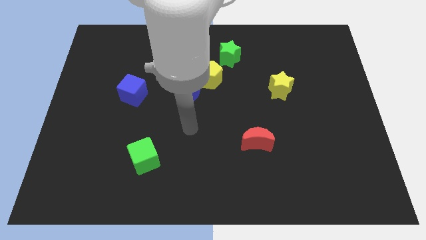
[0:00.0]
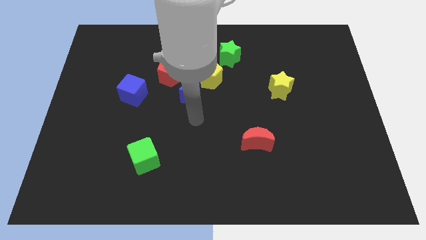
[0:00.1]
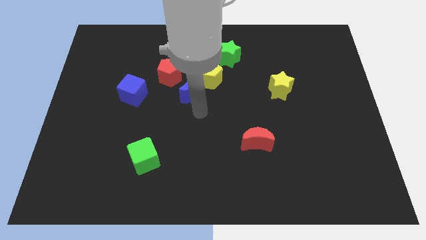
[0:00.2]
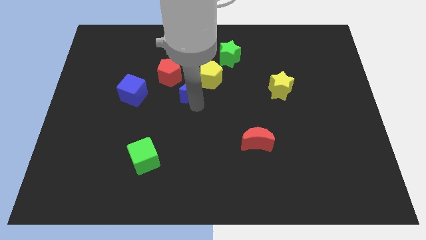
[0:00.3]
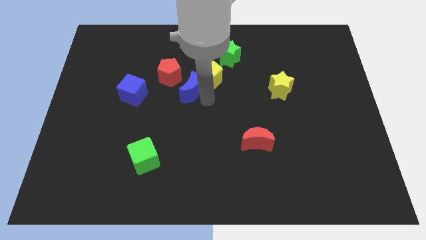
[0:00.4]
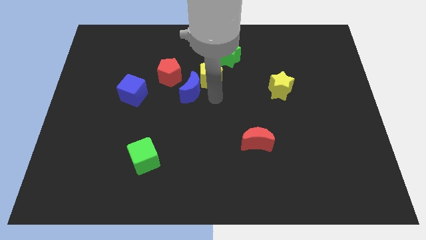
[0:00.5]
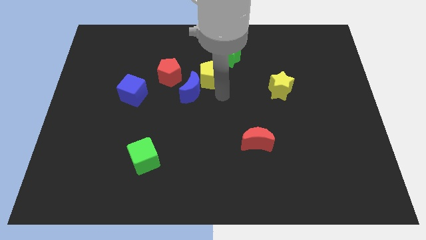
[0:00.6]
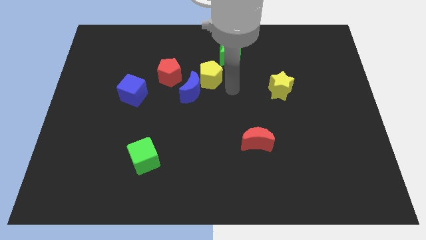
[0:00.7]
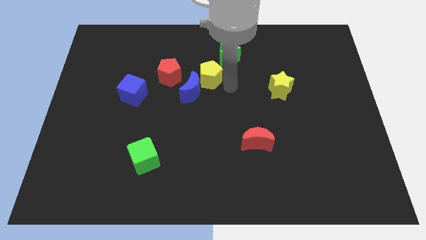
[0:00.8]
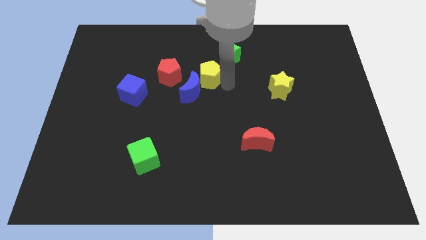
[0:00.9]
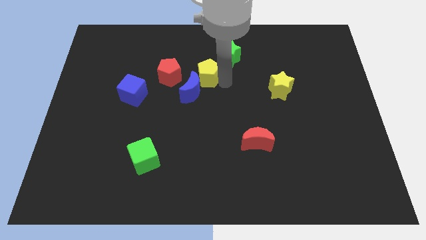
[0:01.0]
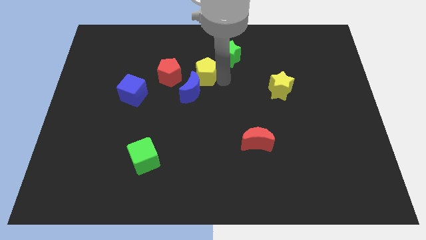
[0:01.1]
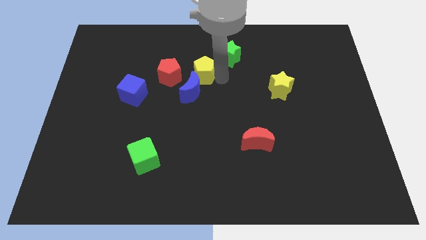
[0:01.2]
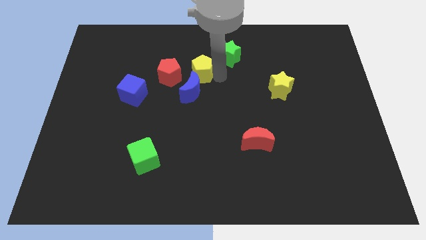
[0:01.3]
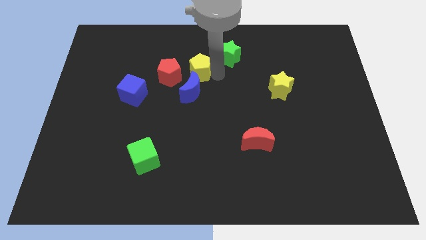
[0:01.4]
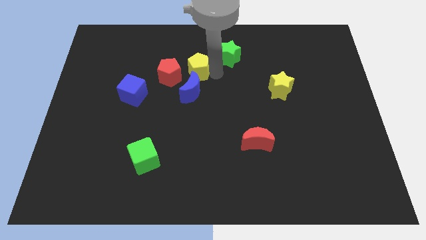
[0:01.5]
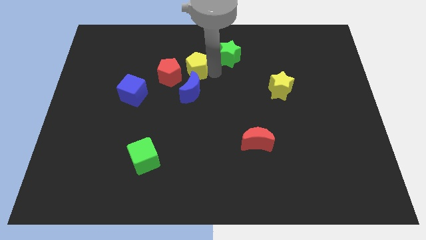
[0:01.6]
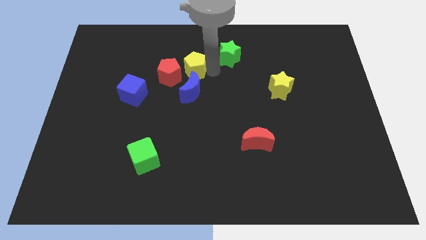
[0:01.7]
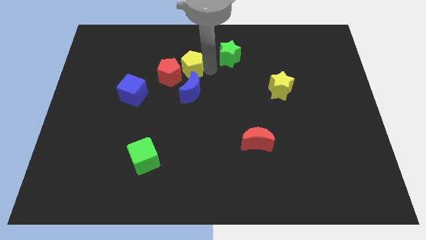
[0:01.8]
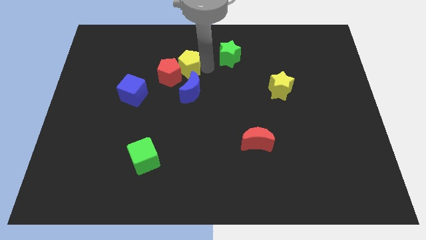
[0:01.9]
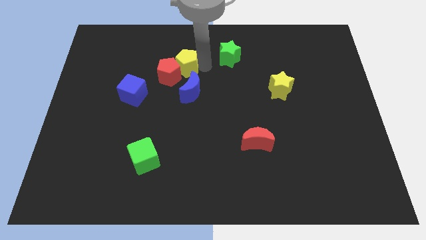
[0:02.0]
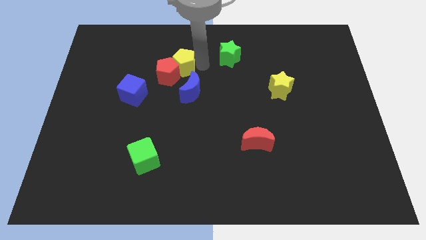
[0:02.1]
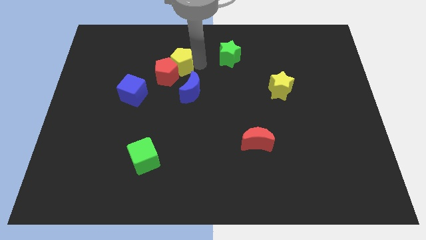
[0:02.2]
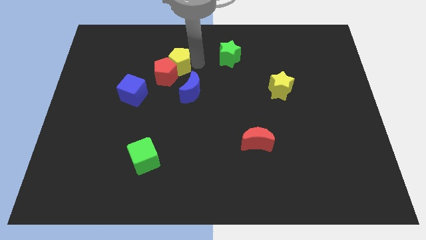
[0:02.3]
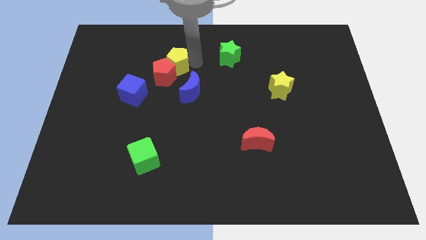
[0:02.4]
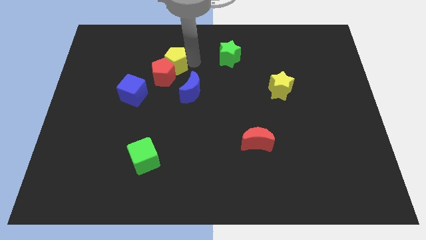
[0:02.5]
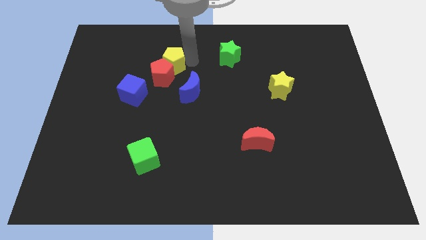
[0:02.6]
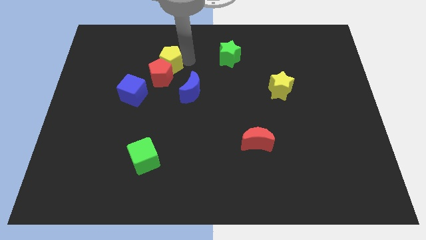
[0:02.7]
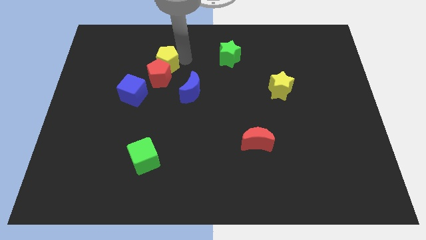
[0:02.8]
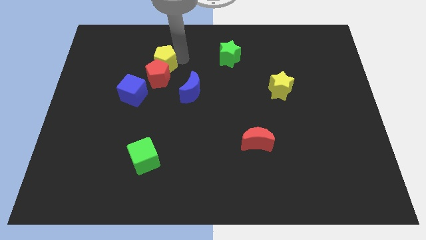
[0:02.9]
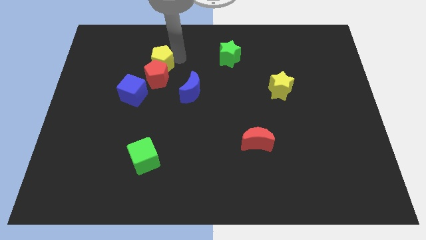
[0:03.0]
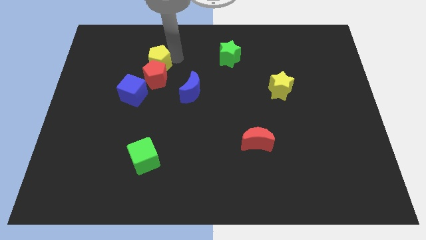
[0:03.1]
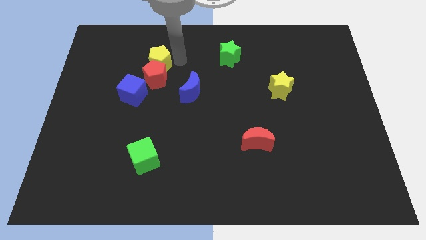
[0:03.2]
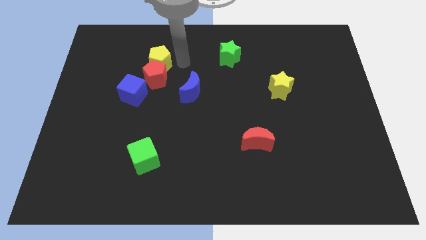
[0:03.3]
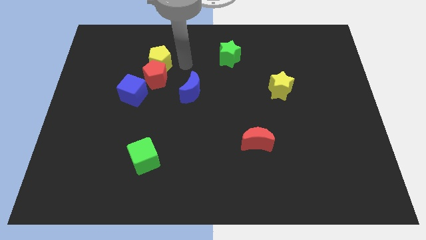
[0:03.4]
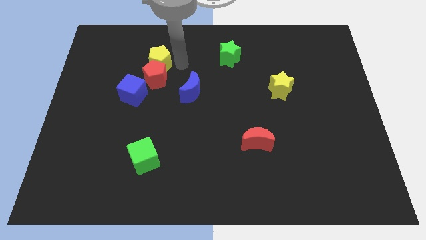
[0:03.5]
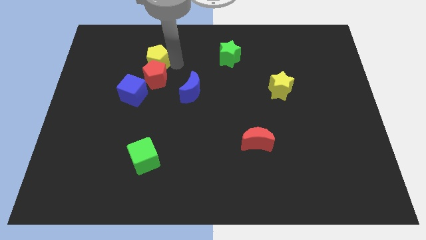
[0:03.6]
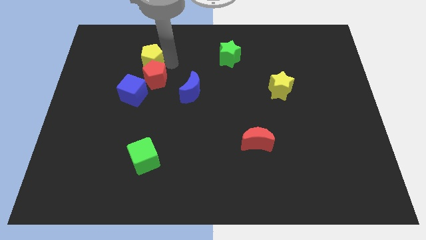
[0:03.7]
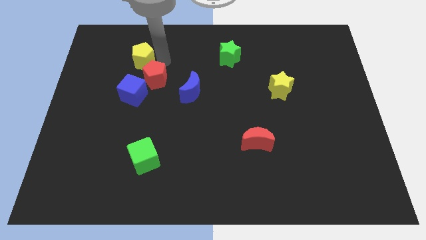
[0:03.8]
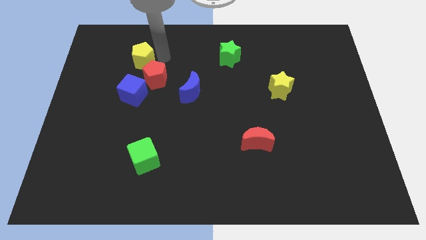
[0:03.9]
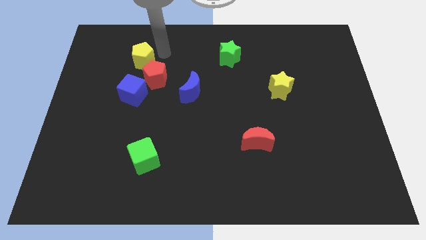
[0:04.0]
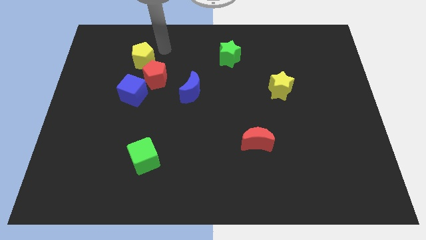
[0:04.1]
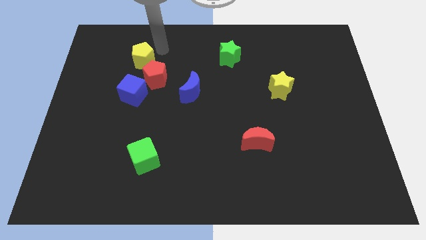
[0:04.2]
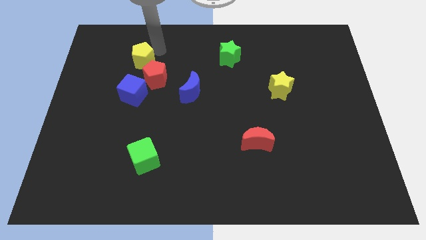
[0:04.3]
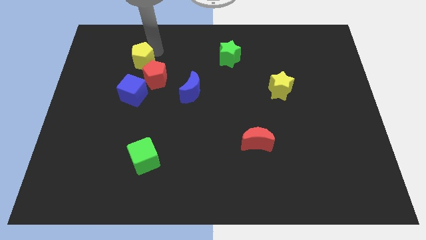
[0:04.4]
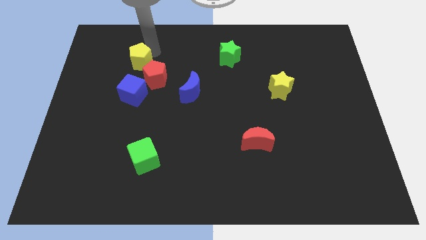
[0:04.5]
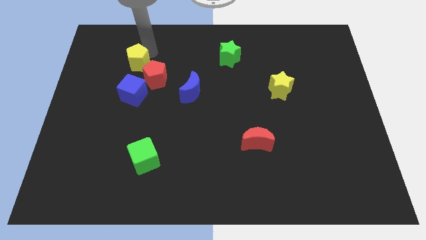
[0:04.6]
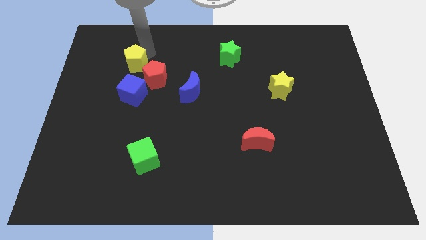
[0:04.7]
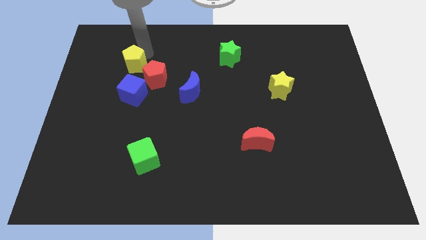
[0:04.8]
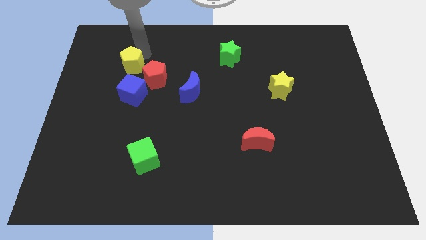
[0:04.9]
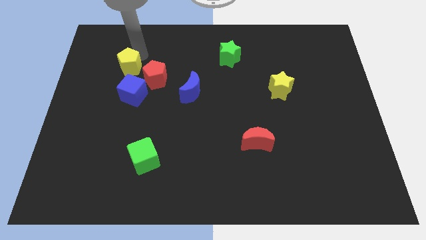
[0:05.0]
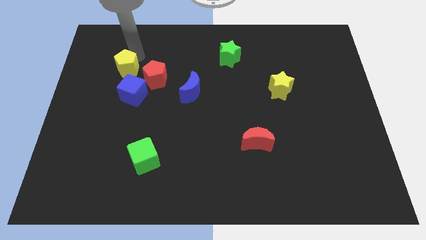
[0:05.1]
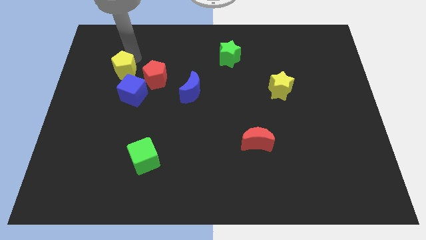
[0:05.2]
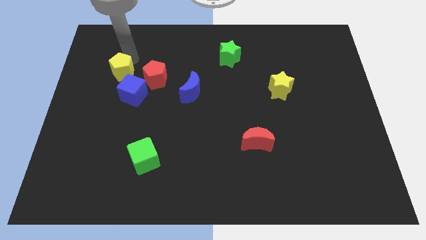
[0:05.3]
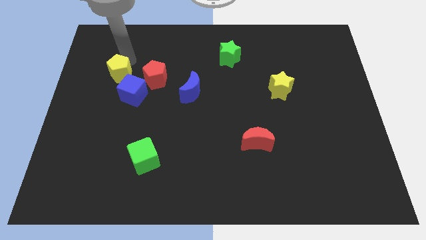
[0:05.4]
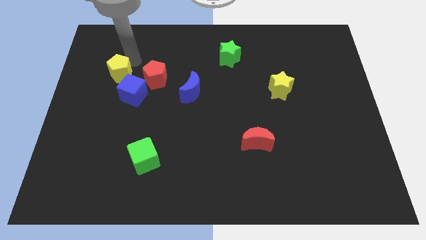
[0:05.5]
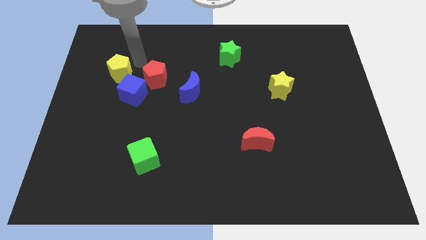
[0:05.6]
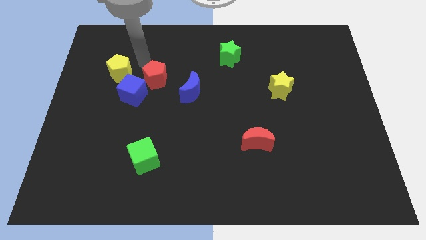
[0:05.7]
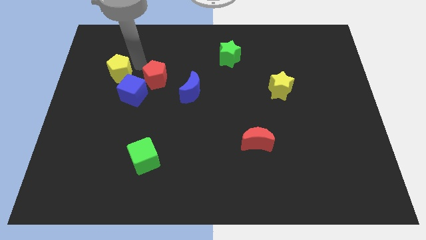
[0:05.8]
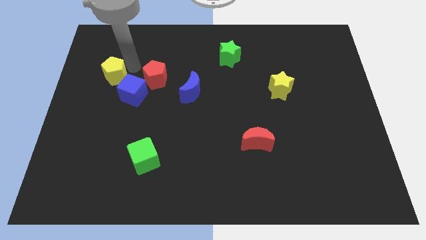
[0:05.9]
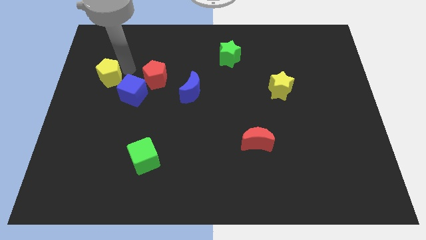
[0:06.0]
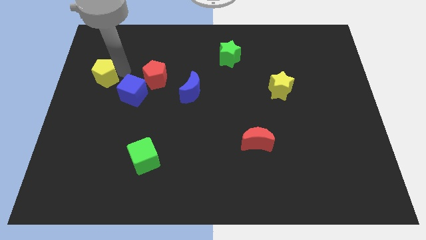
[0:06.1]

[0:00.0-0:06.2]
slide the yellow pentagon to the center left
